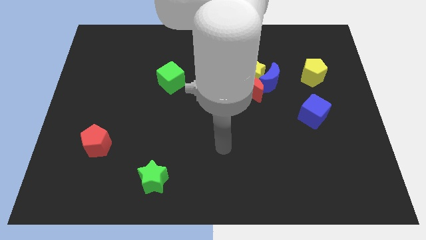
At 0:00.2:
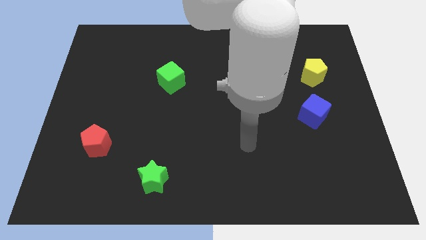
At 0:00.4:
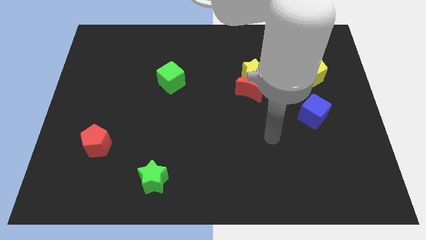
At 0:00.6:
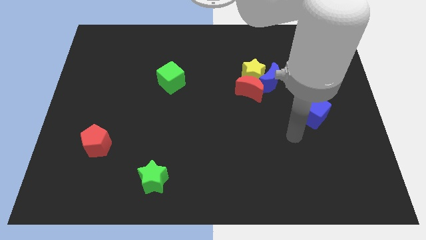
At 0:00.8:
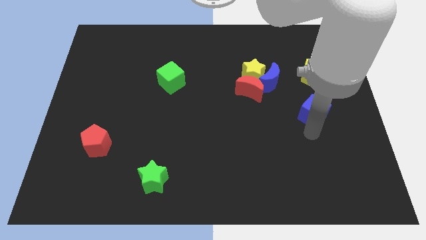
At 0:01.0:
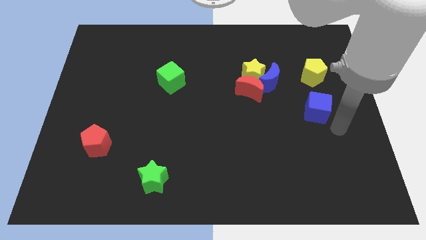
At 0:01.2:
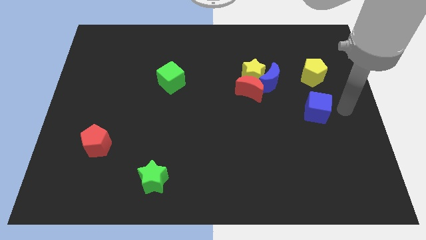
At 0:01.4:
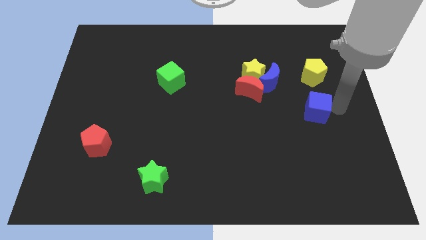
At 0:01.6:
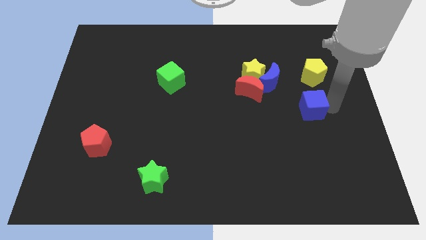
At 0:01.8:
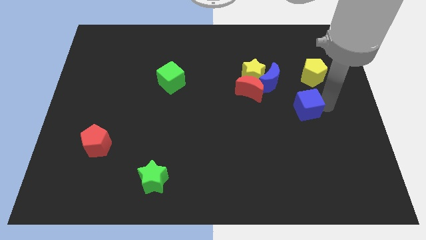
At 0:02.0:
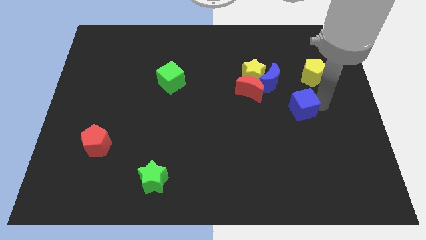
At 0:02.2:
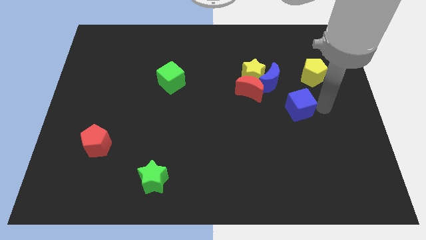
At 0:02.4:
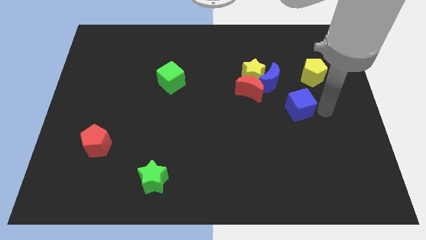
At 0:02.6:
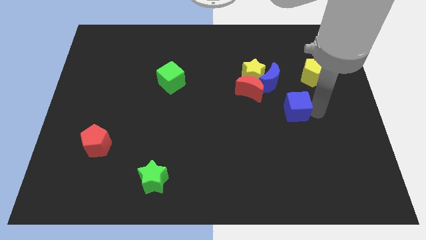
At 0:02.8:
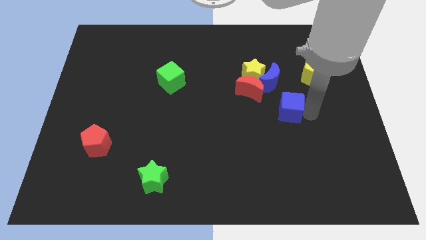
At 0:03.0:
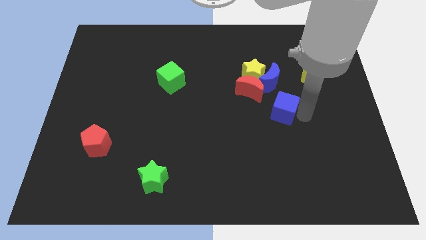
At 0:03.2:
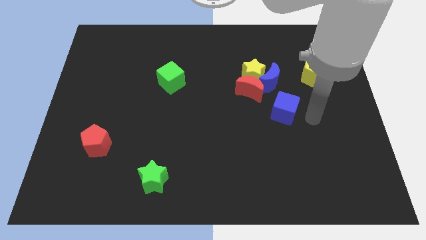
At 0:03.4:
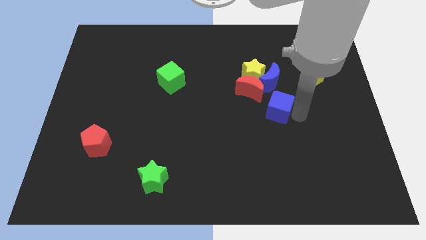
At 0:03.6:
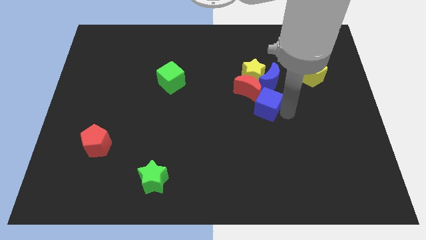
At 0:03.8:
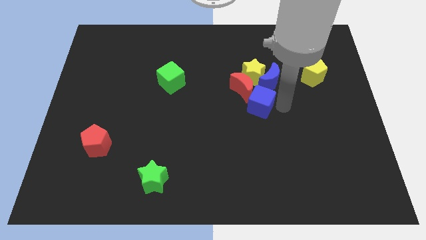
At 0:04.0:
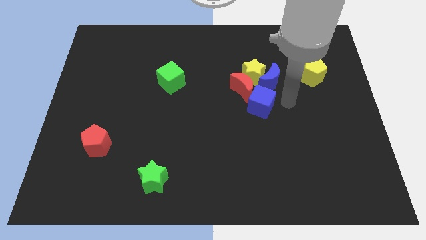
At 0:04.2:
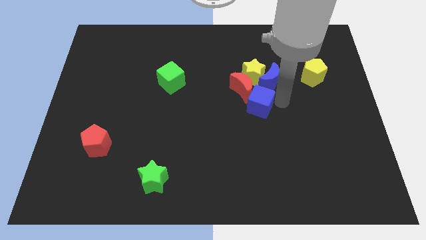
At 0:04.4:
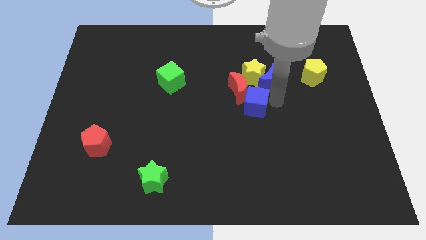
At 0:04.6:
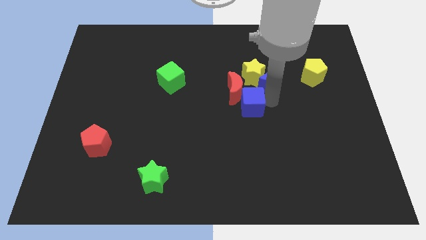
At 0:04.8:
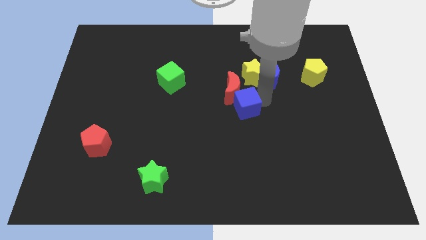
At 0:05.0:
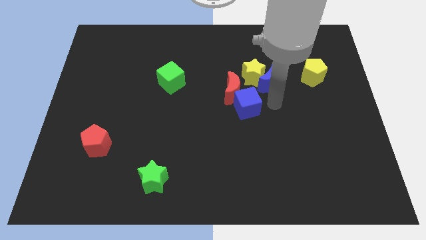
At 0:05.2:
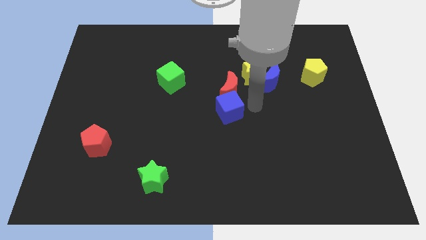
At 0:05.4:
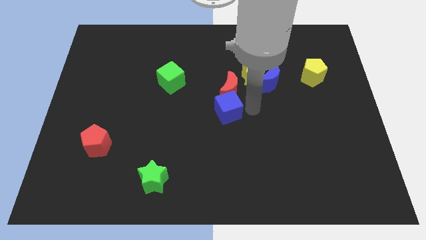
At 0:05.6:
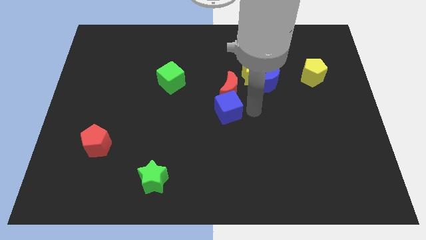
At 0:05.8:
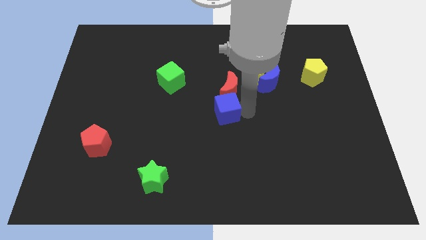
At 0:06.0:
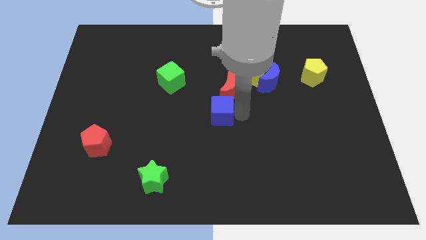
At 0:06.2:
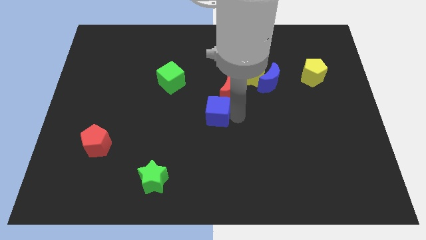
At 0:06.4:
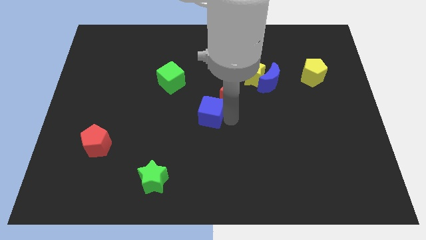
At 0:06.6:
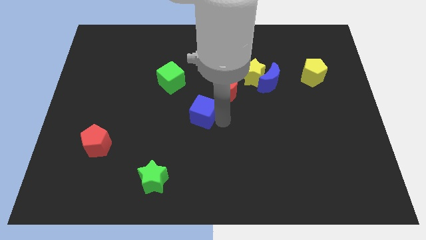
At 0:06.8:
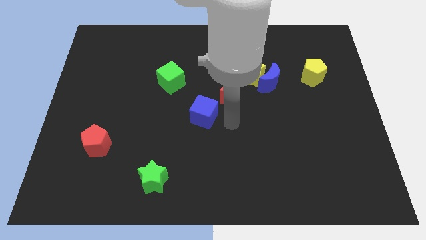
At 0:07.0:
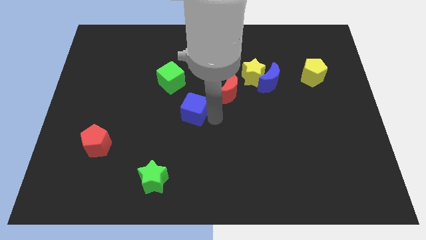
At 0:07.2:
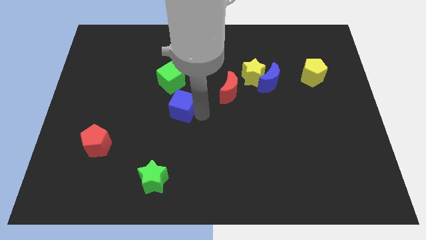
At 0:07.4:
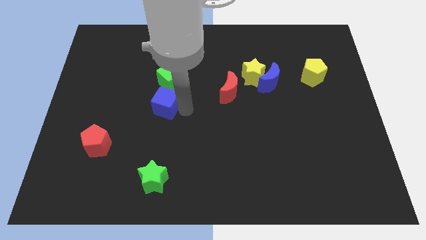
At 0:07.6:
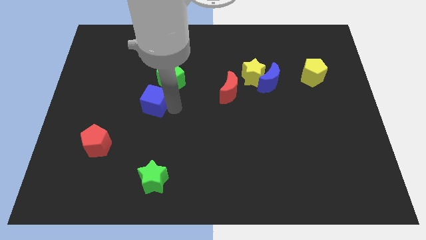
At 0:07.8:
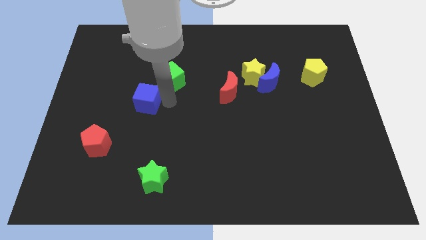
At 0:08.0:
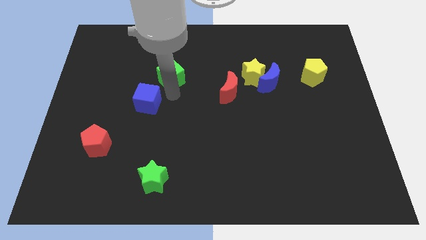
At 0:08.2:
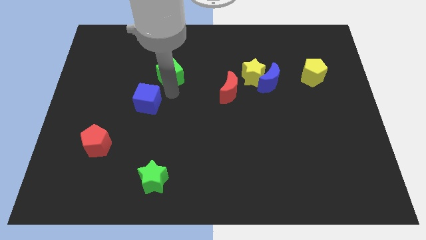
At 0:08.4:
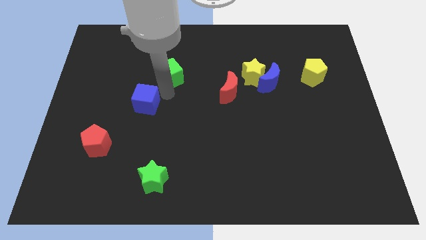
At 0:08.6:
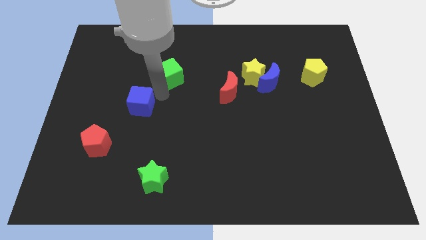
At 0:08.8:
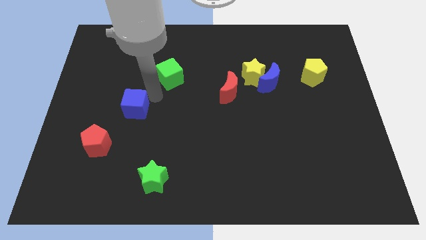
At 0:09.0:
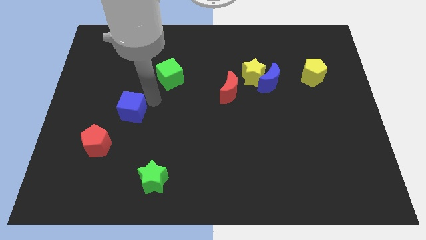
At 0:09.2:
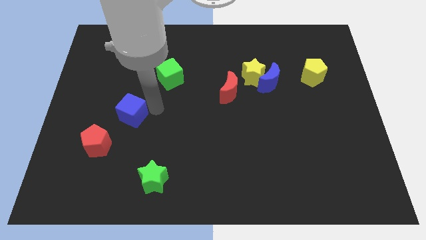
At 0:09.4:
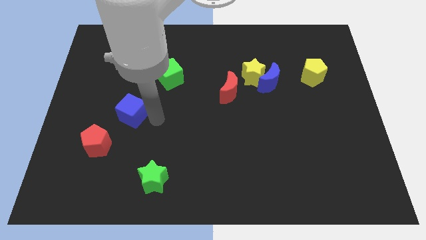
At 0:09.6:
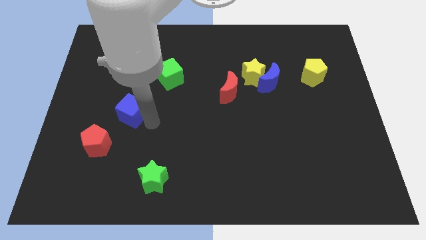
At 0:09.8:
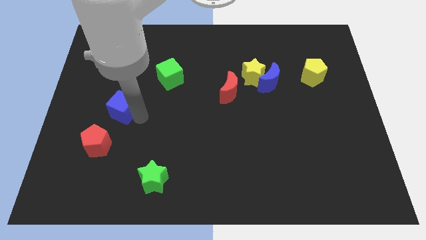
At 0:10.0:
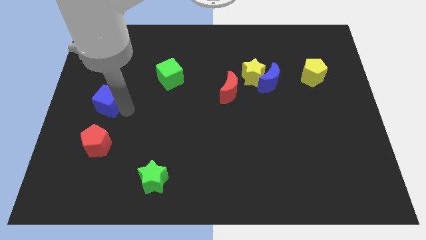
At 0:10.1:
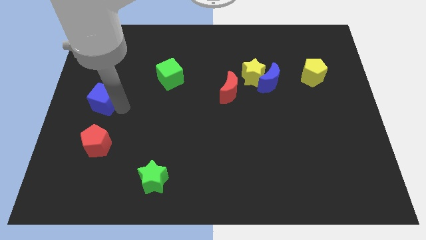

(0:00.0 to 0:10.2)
move the blue cube to the left side of the board

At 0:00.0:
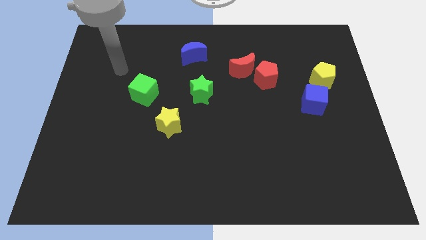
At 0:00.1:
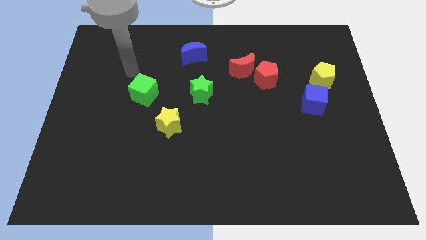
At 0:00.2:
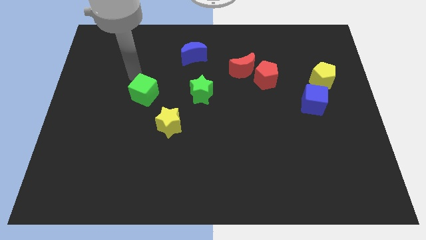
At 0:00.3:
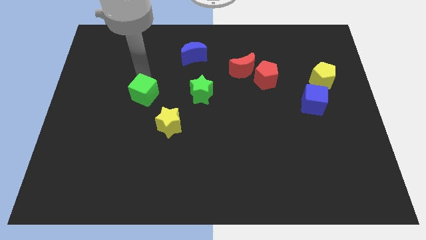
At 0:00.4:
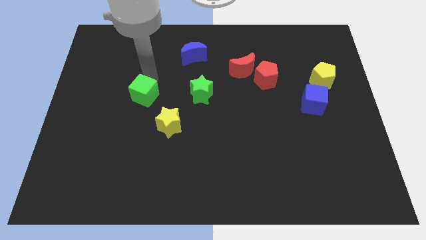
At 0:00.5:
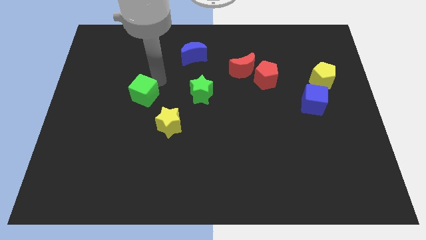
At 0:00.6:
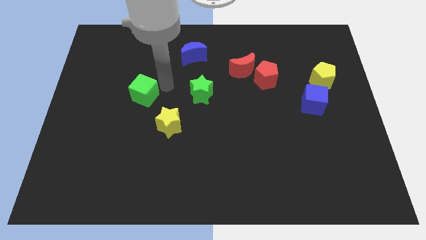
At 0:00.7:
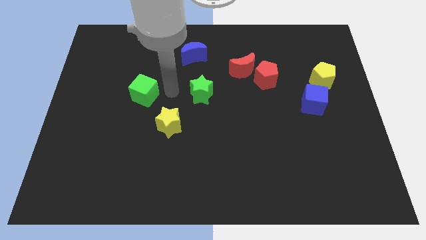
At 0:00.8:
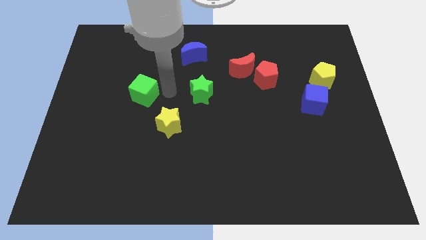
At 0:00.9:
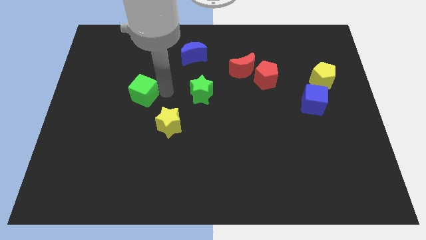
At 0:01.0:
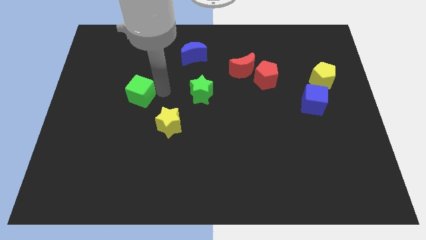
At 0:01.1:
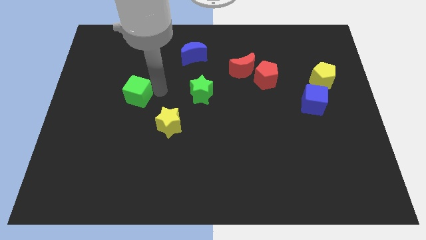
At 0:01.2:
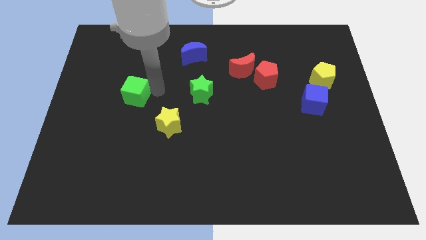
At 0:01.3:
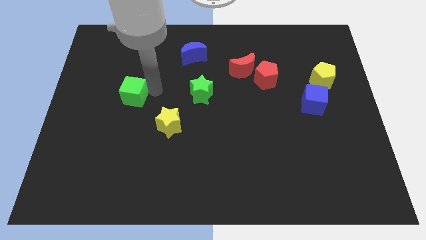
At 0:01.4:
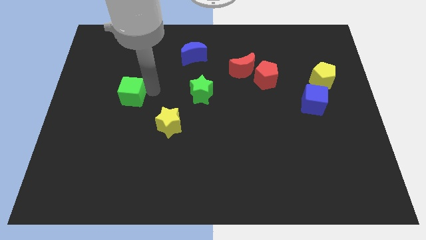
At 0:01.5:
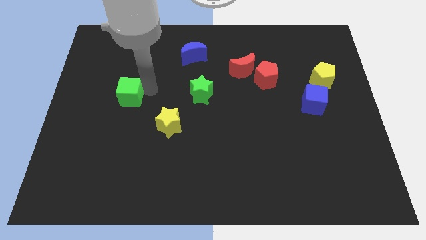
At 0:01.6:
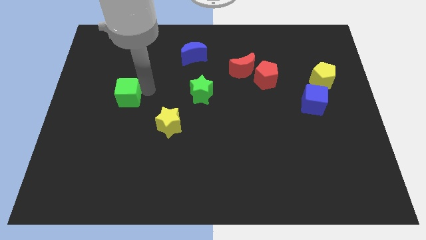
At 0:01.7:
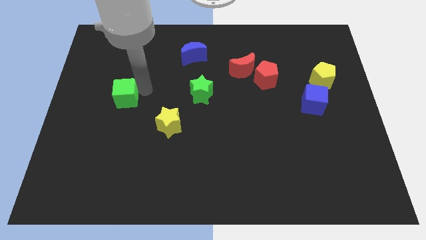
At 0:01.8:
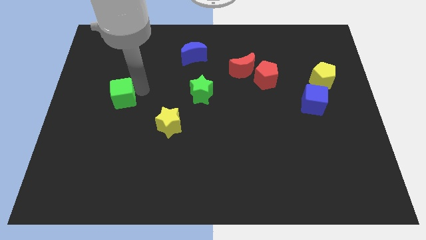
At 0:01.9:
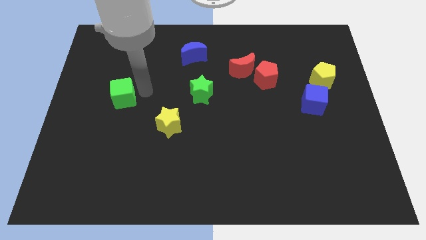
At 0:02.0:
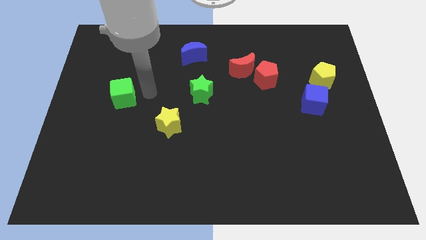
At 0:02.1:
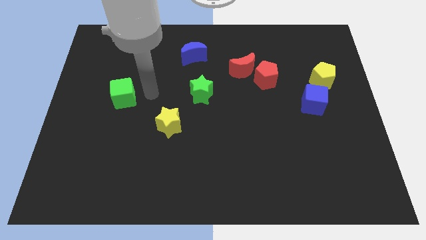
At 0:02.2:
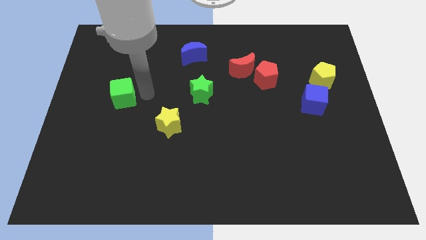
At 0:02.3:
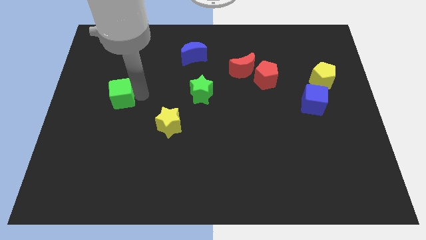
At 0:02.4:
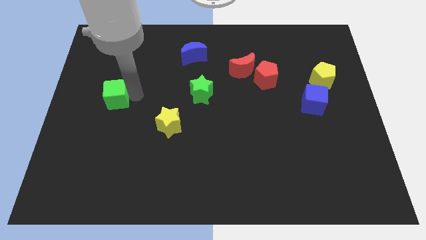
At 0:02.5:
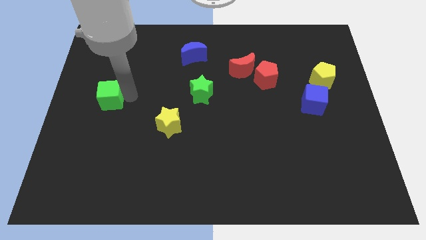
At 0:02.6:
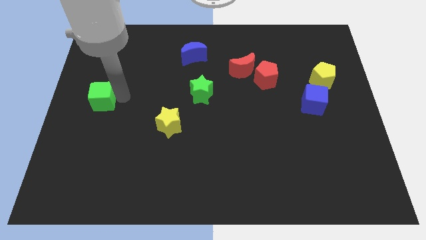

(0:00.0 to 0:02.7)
push the green cube to the left side
